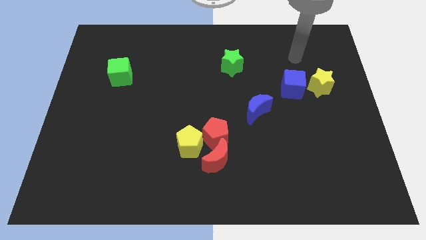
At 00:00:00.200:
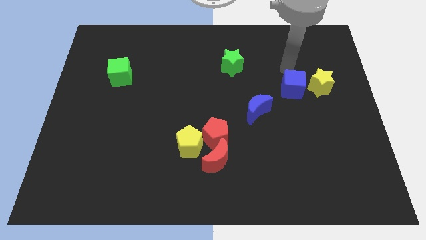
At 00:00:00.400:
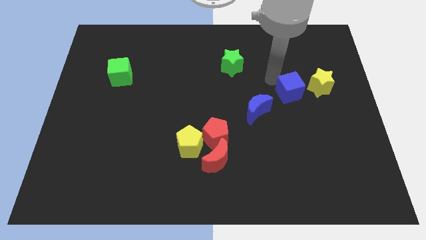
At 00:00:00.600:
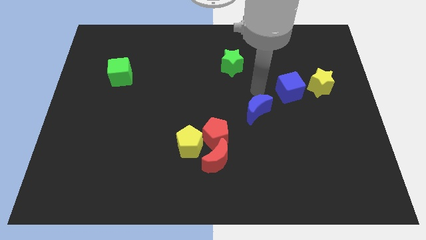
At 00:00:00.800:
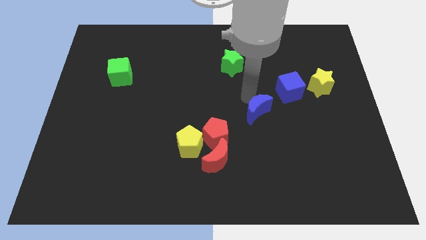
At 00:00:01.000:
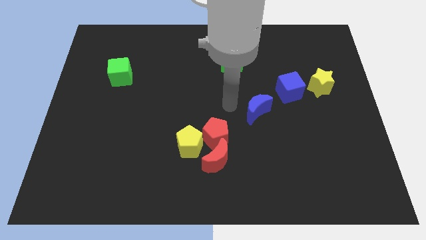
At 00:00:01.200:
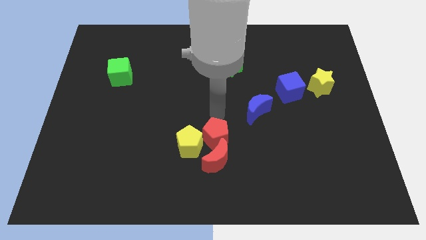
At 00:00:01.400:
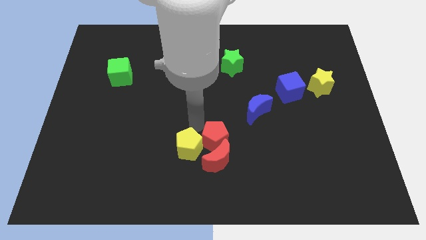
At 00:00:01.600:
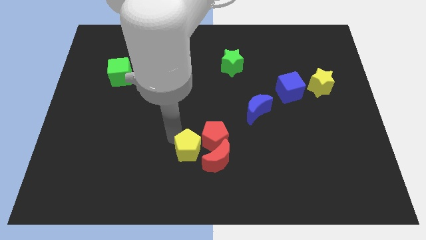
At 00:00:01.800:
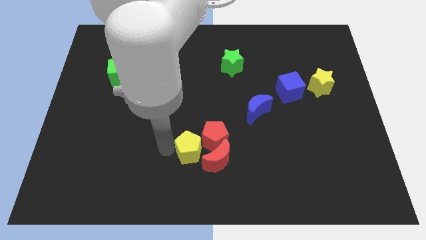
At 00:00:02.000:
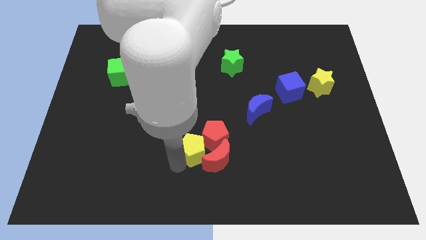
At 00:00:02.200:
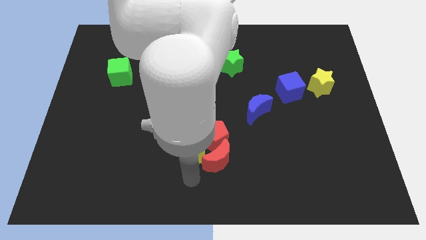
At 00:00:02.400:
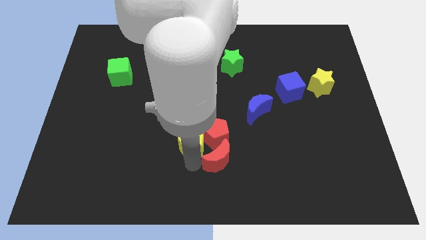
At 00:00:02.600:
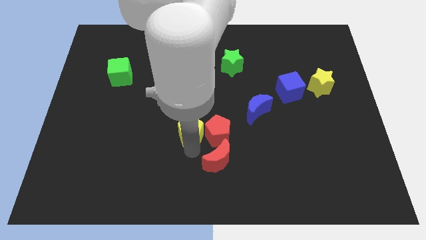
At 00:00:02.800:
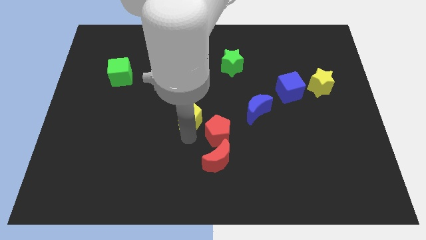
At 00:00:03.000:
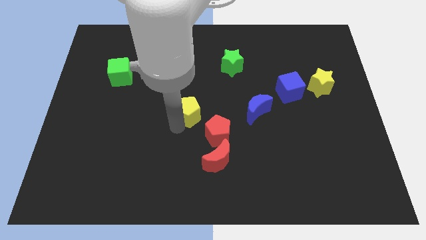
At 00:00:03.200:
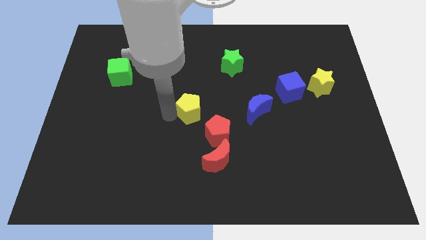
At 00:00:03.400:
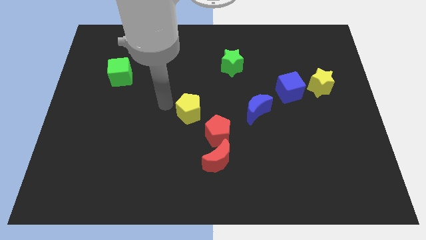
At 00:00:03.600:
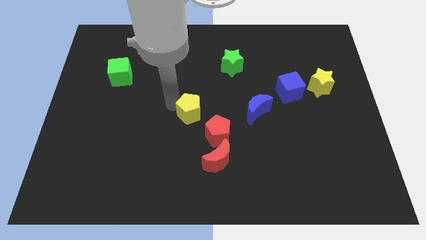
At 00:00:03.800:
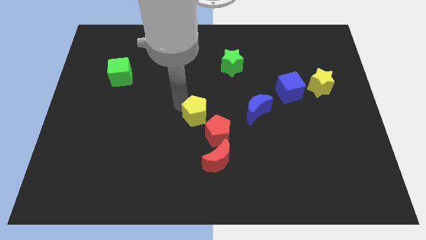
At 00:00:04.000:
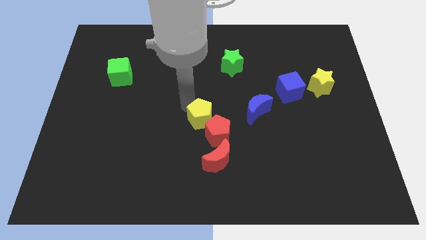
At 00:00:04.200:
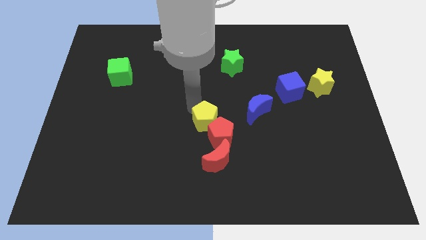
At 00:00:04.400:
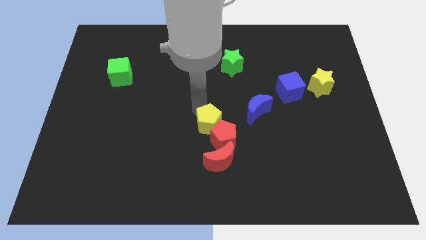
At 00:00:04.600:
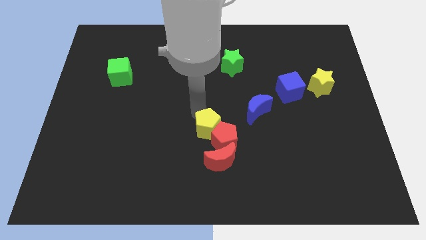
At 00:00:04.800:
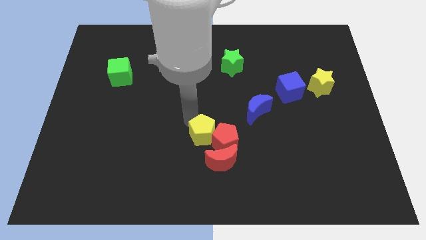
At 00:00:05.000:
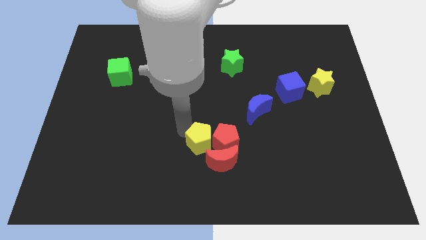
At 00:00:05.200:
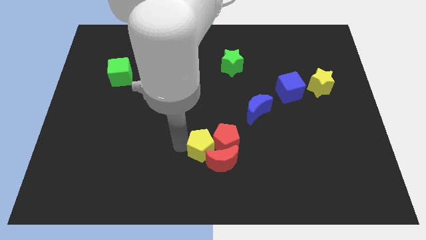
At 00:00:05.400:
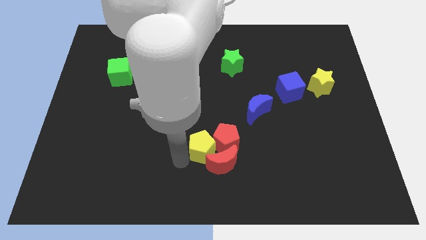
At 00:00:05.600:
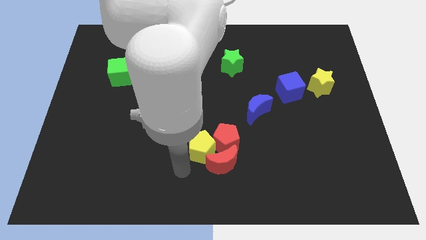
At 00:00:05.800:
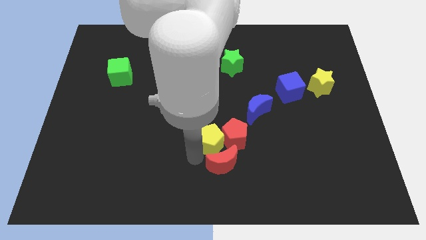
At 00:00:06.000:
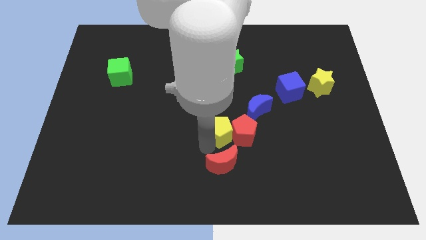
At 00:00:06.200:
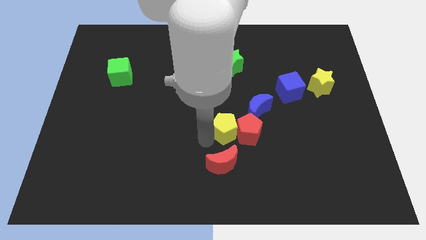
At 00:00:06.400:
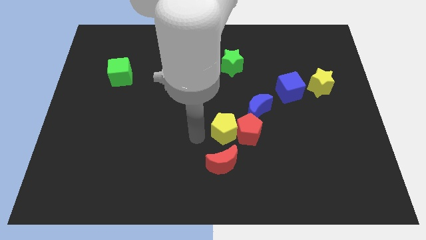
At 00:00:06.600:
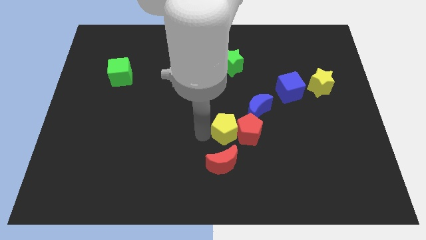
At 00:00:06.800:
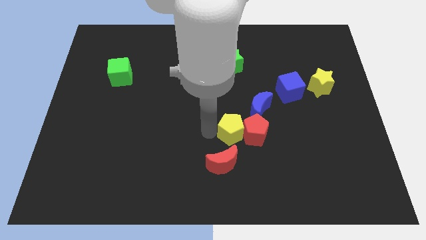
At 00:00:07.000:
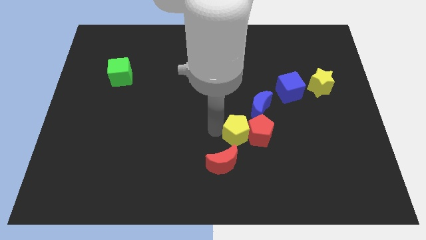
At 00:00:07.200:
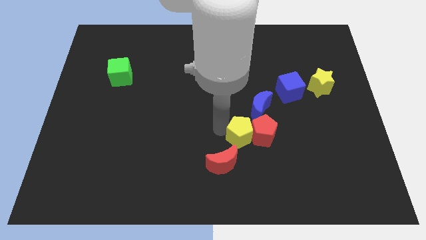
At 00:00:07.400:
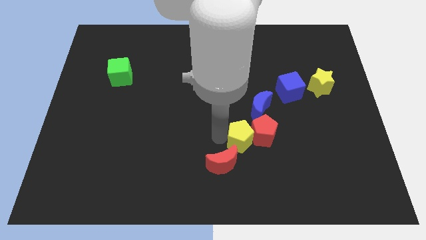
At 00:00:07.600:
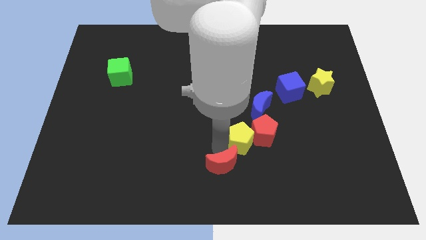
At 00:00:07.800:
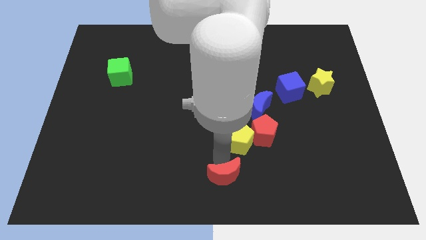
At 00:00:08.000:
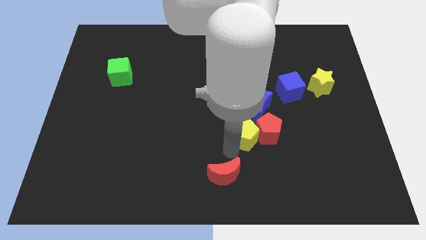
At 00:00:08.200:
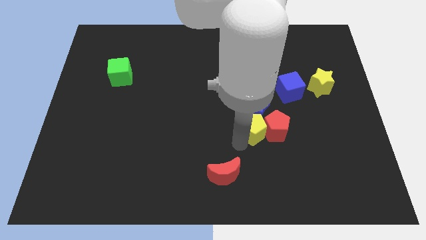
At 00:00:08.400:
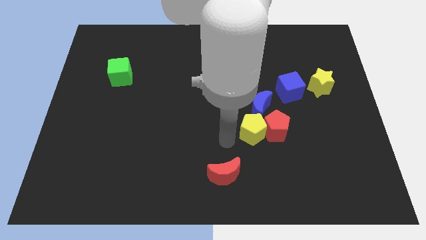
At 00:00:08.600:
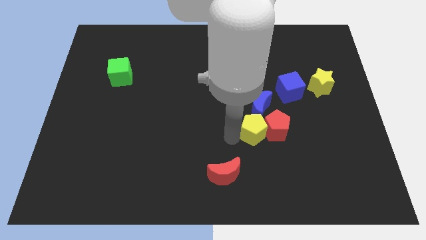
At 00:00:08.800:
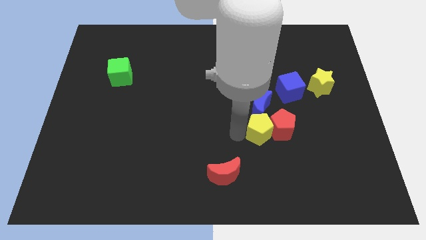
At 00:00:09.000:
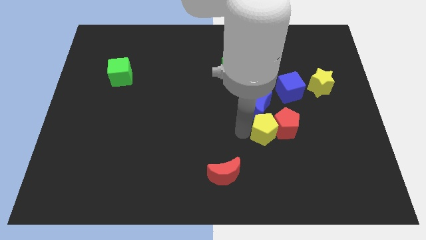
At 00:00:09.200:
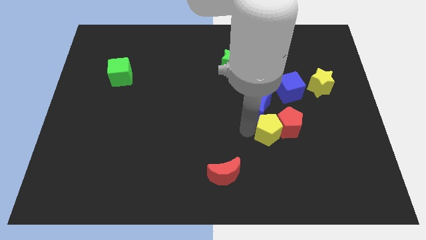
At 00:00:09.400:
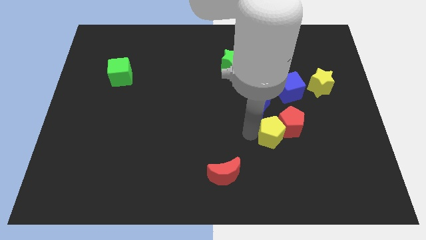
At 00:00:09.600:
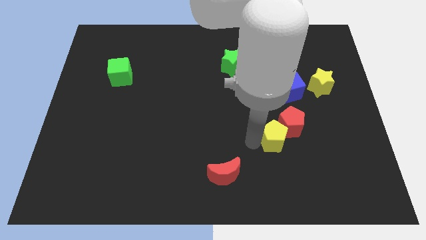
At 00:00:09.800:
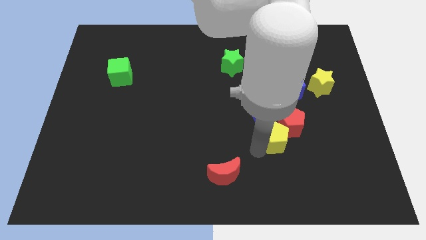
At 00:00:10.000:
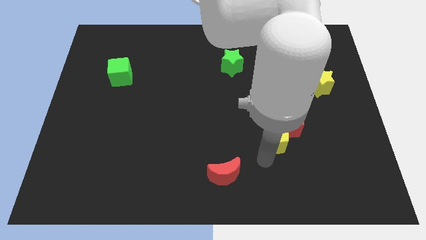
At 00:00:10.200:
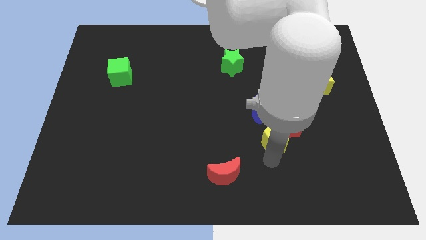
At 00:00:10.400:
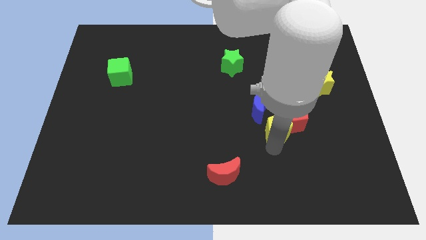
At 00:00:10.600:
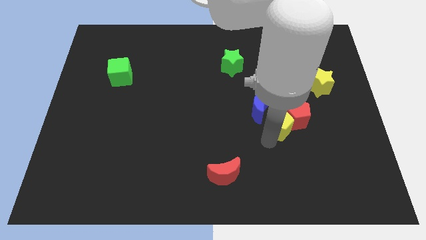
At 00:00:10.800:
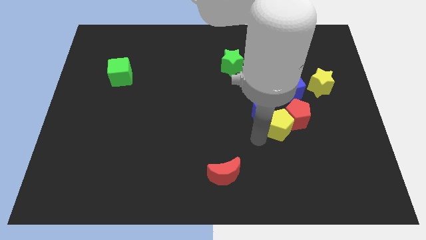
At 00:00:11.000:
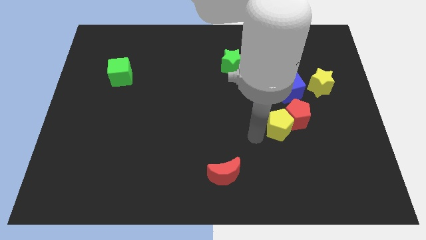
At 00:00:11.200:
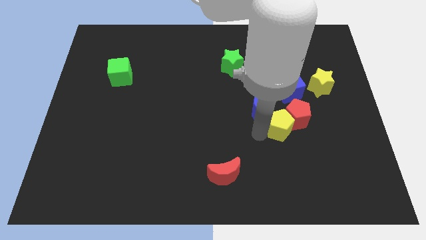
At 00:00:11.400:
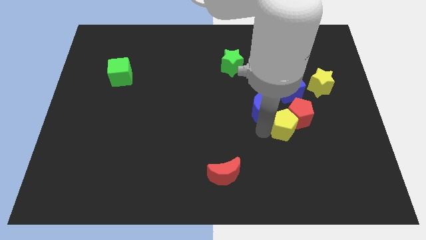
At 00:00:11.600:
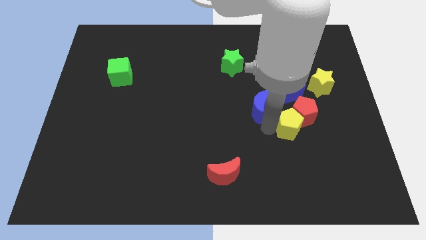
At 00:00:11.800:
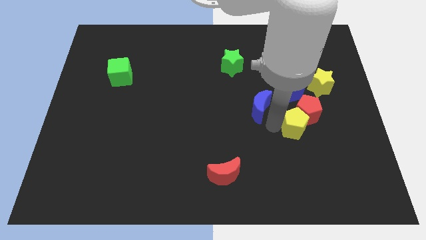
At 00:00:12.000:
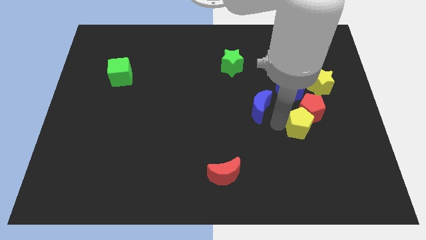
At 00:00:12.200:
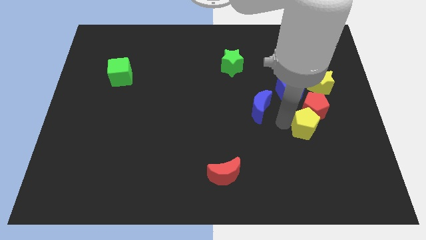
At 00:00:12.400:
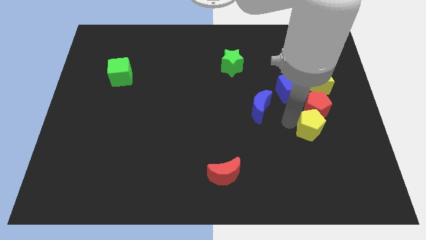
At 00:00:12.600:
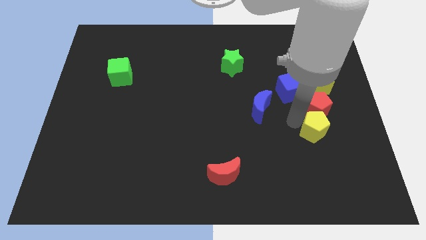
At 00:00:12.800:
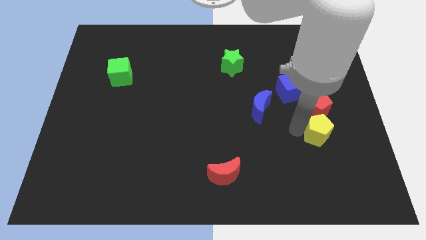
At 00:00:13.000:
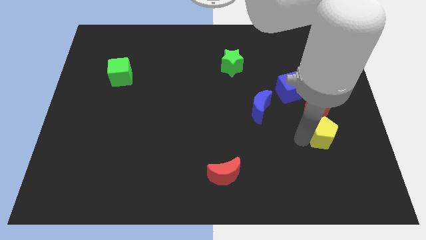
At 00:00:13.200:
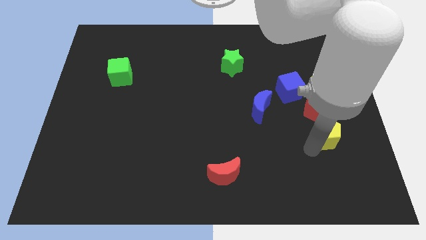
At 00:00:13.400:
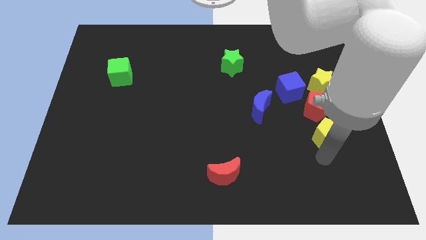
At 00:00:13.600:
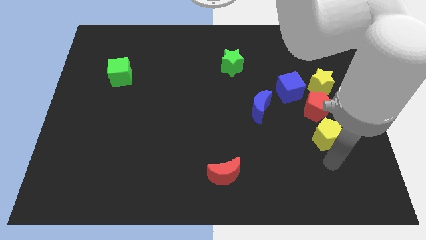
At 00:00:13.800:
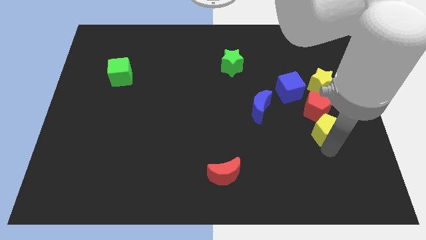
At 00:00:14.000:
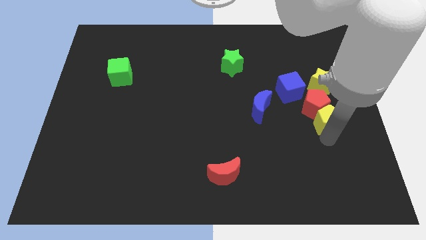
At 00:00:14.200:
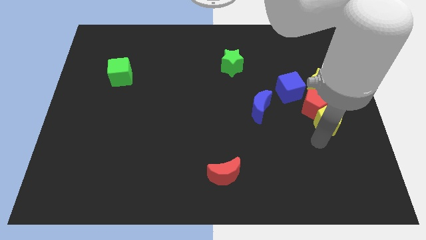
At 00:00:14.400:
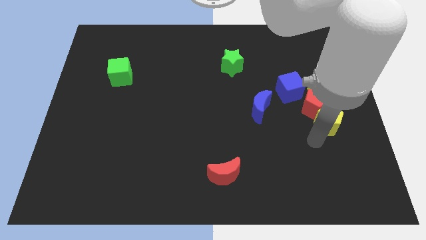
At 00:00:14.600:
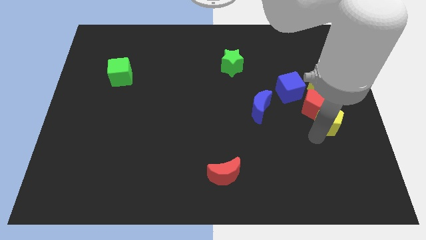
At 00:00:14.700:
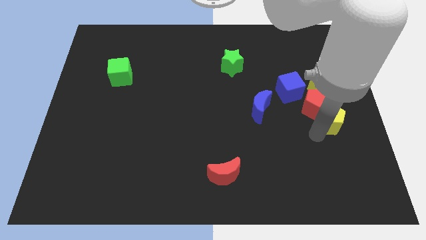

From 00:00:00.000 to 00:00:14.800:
put the yellow pentagon to the right side of the board
